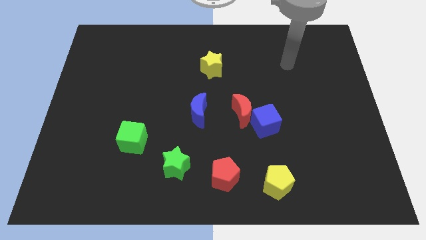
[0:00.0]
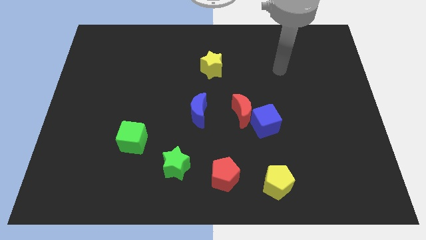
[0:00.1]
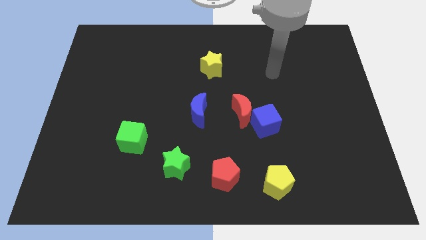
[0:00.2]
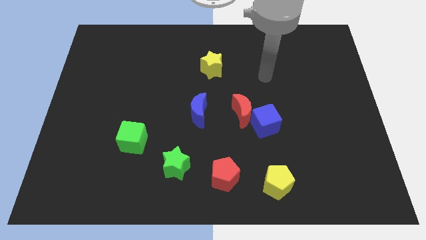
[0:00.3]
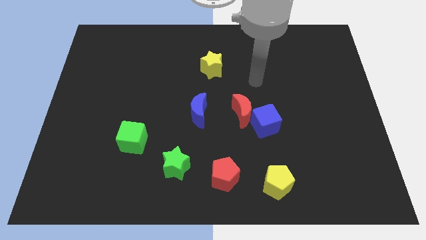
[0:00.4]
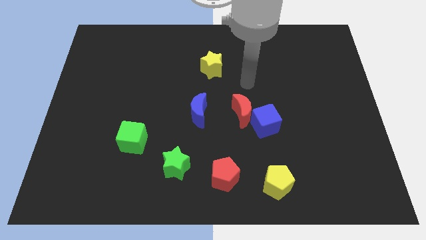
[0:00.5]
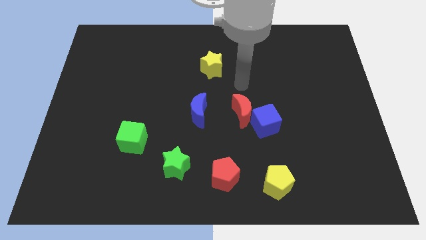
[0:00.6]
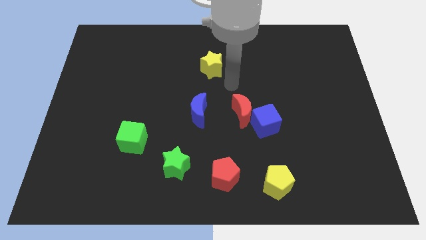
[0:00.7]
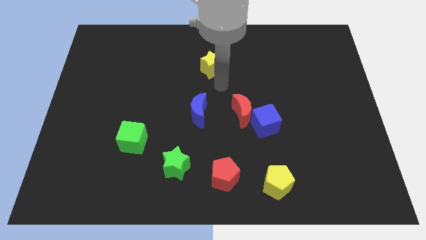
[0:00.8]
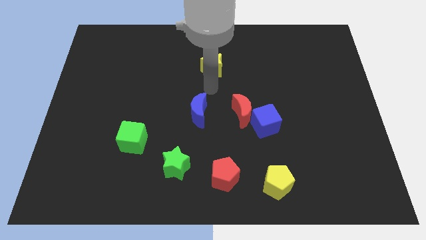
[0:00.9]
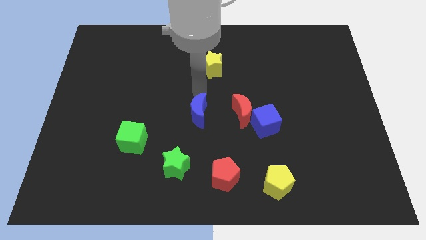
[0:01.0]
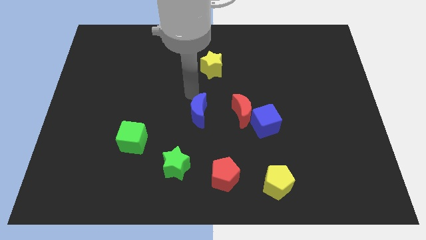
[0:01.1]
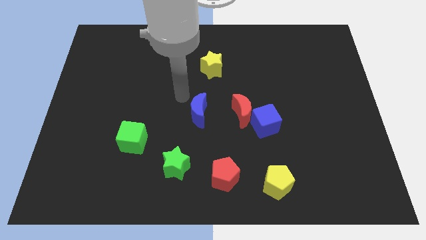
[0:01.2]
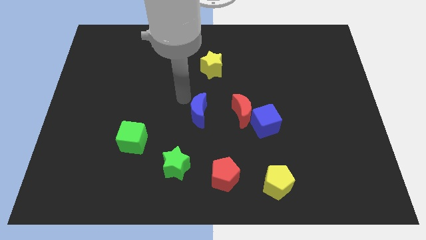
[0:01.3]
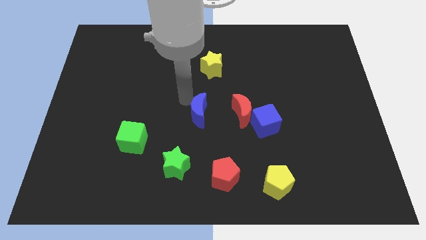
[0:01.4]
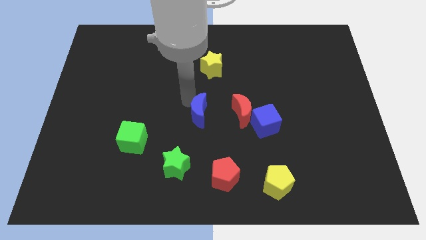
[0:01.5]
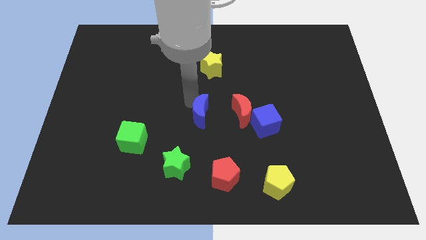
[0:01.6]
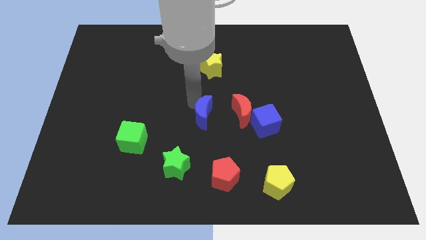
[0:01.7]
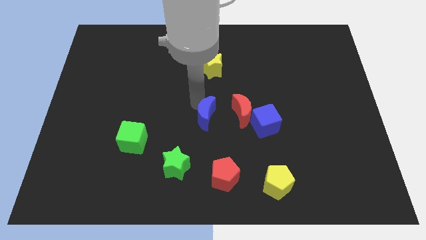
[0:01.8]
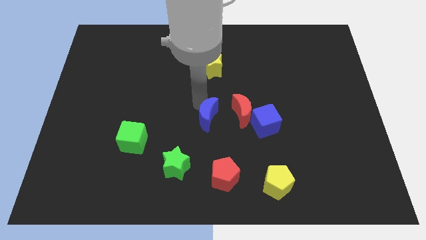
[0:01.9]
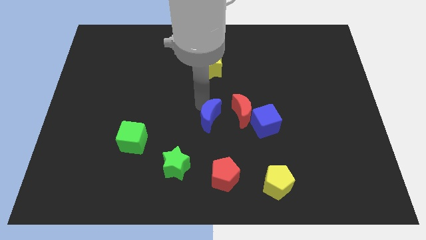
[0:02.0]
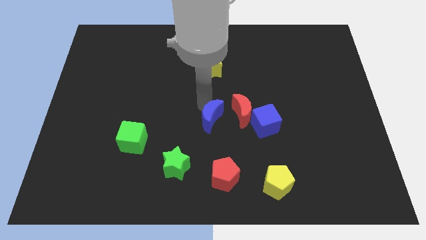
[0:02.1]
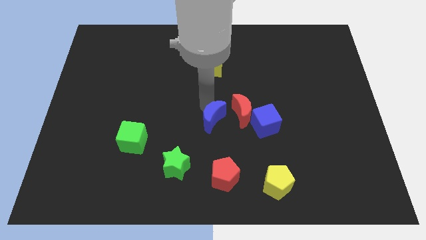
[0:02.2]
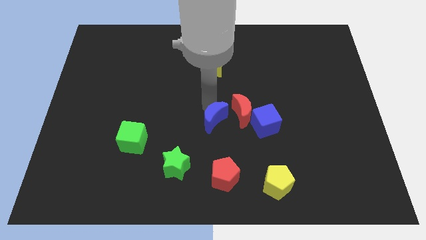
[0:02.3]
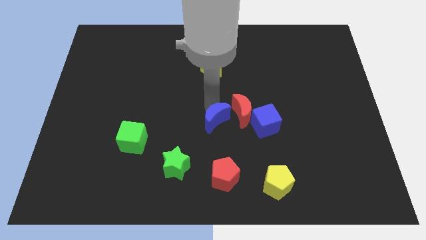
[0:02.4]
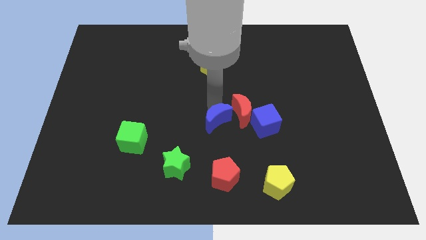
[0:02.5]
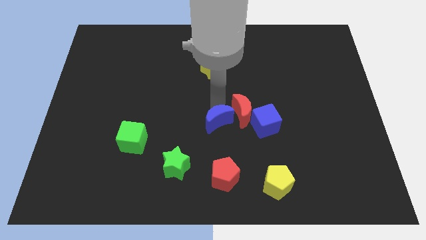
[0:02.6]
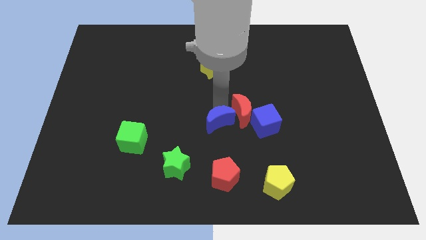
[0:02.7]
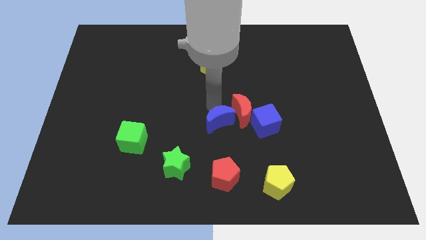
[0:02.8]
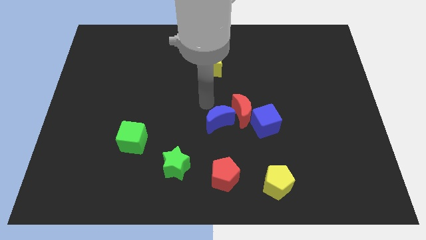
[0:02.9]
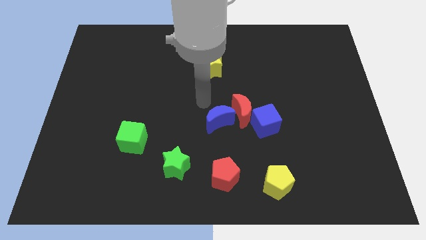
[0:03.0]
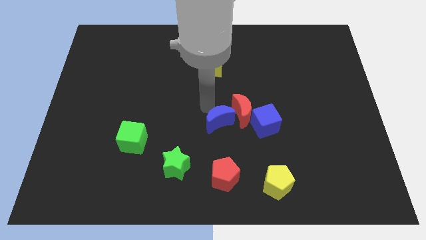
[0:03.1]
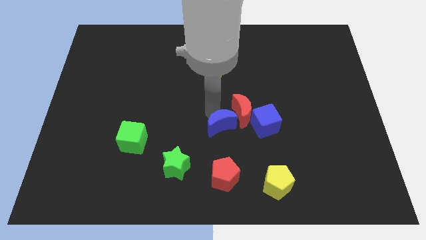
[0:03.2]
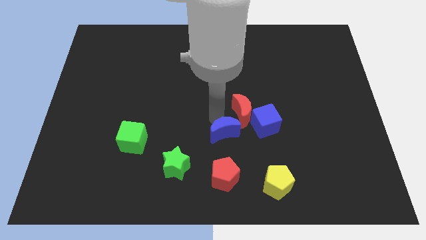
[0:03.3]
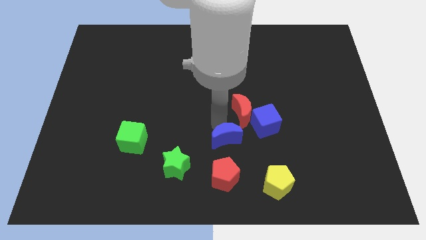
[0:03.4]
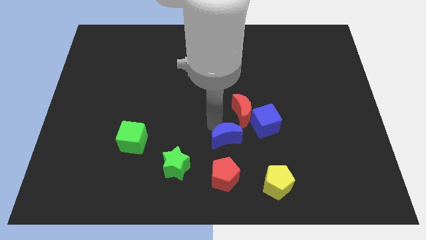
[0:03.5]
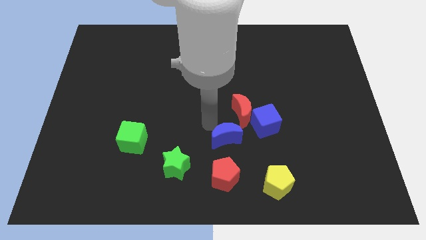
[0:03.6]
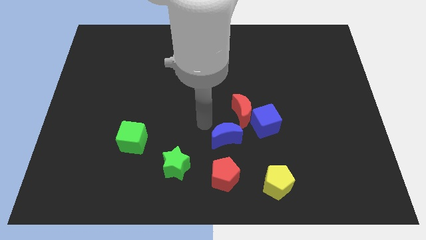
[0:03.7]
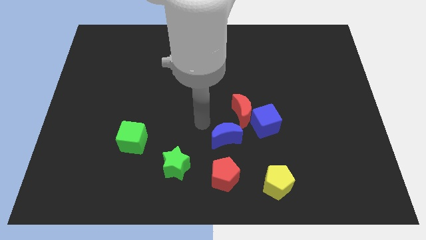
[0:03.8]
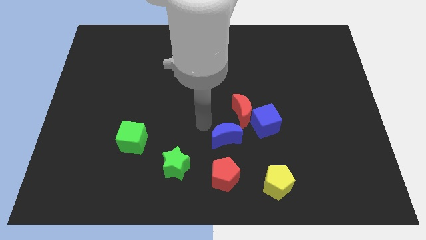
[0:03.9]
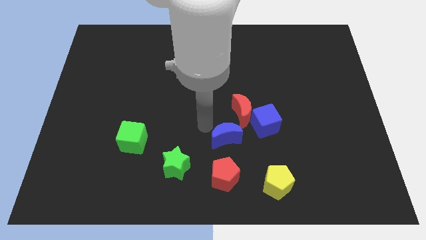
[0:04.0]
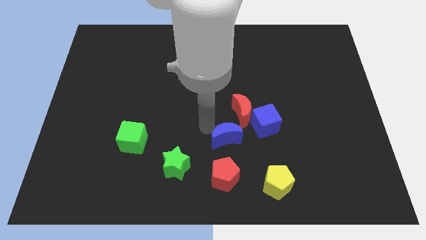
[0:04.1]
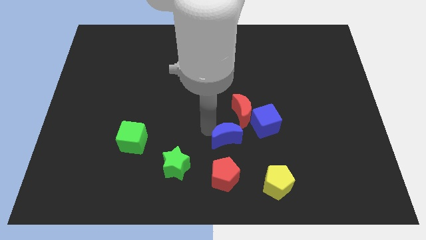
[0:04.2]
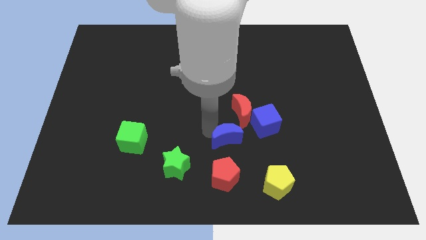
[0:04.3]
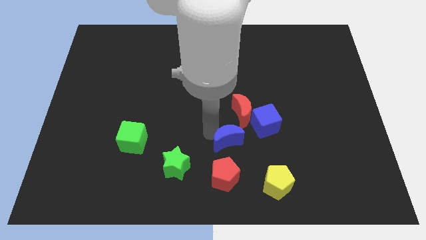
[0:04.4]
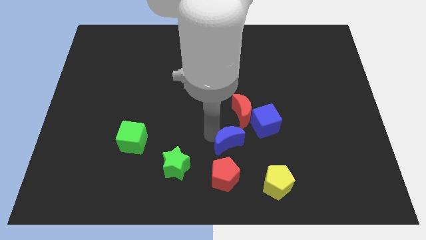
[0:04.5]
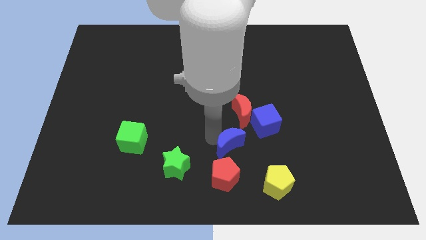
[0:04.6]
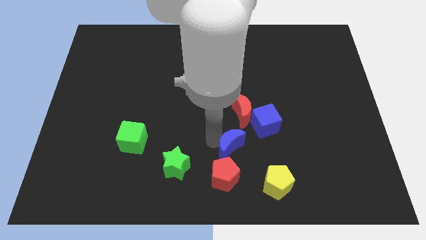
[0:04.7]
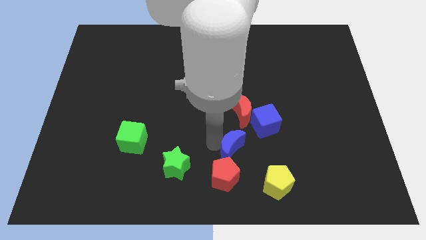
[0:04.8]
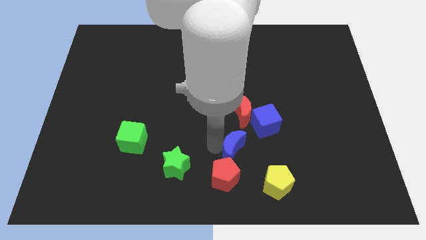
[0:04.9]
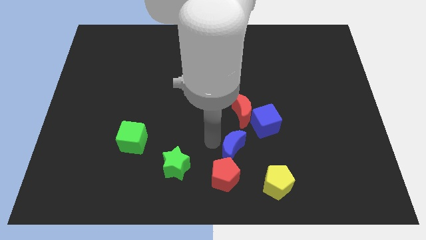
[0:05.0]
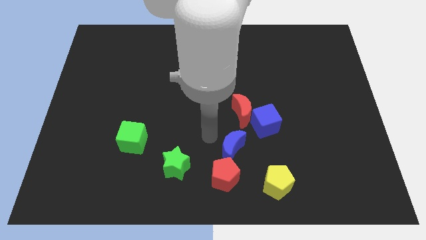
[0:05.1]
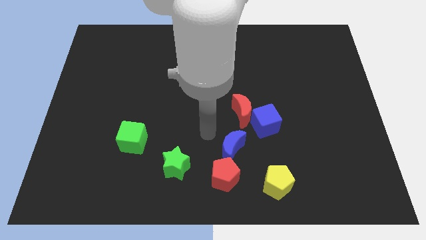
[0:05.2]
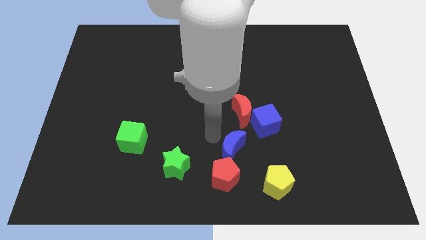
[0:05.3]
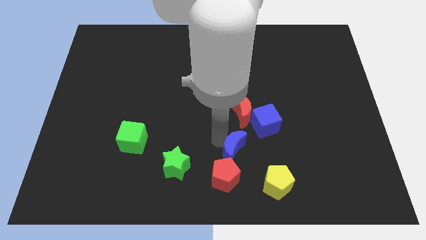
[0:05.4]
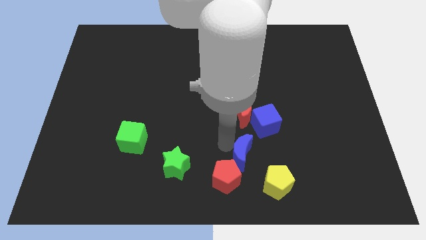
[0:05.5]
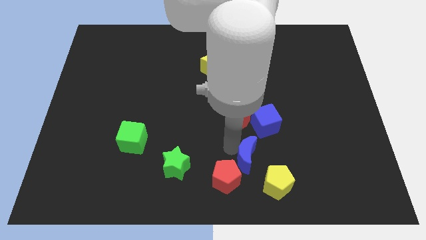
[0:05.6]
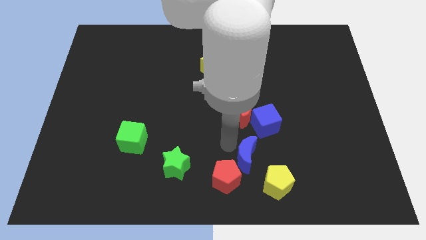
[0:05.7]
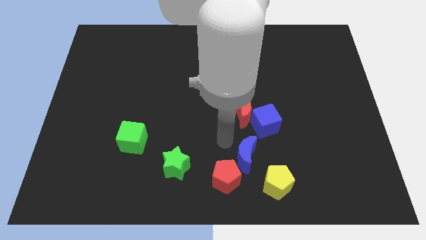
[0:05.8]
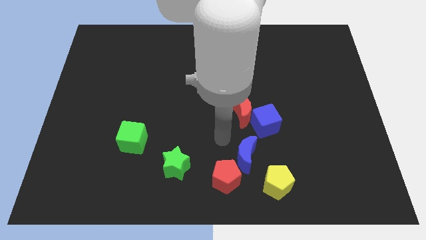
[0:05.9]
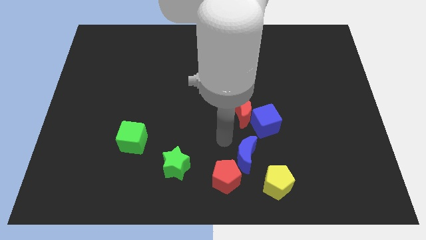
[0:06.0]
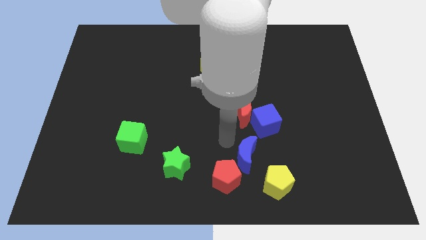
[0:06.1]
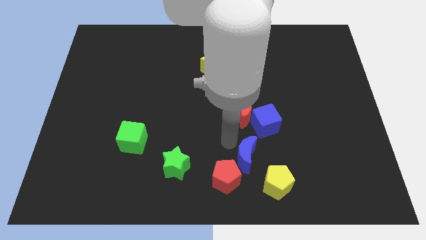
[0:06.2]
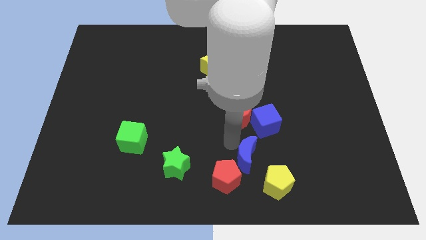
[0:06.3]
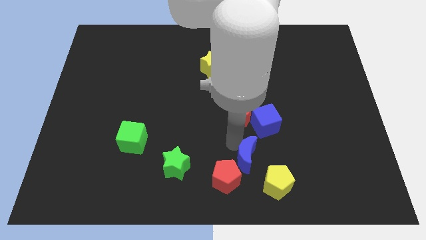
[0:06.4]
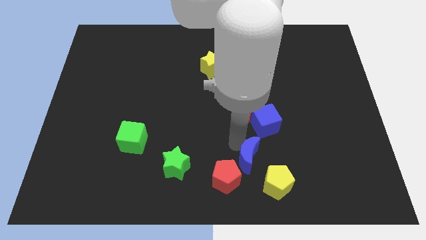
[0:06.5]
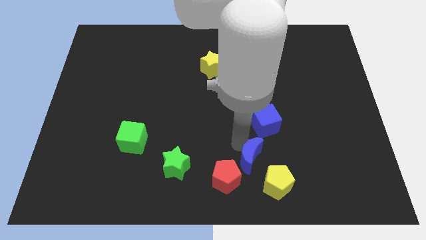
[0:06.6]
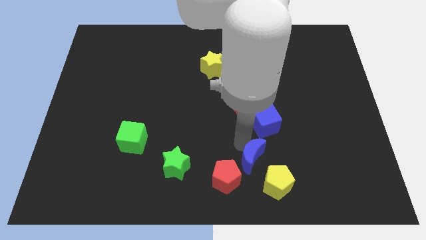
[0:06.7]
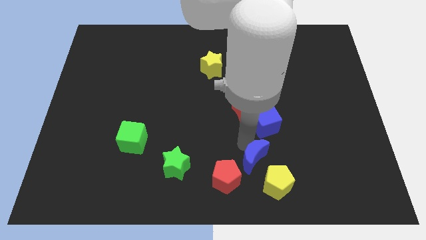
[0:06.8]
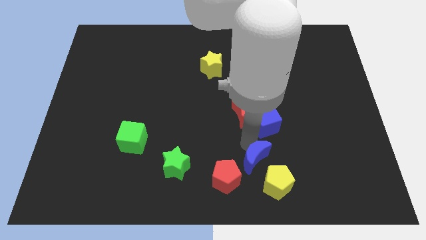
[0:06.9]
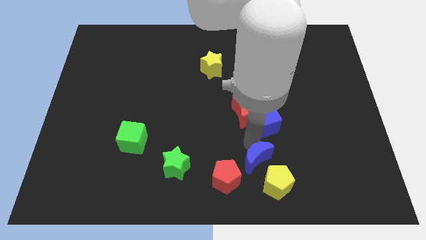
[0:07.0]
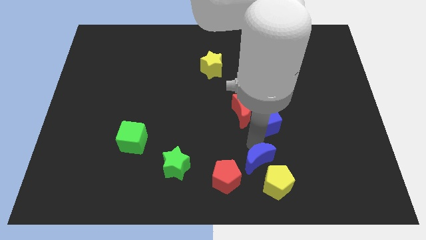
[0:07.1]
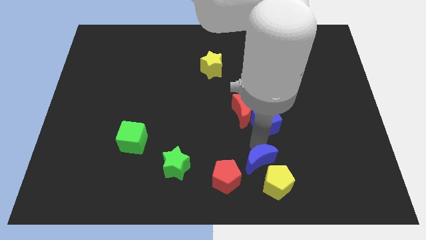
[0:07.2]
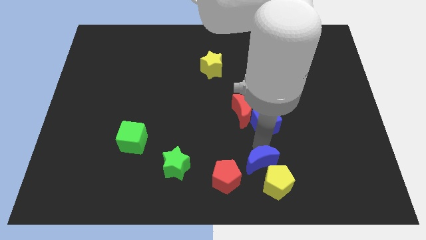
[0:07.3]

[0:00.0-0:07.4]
move the blue moon towards the yellow pentagon
